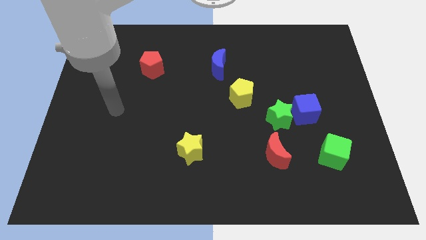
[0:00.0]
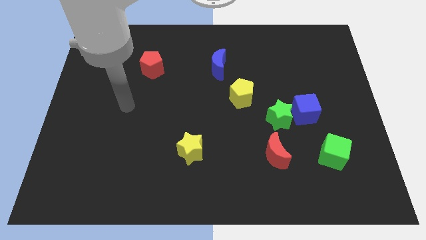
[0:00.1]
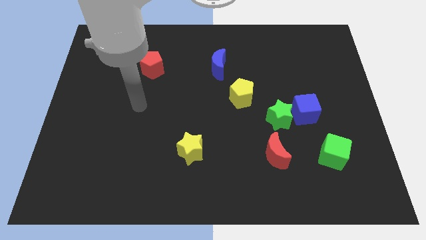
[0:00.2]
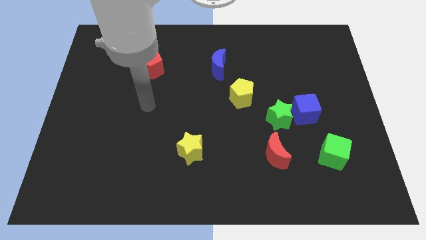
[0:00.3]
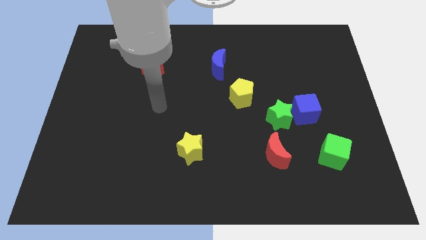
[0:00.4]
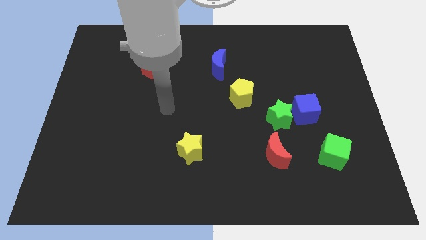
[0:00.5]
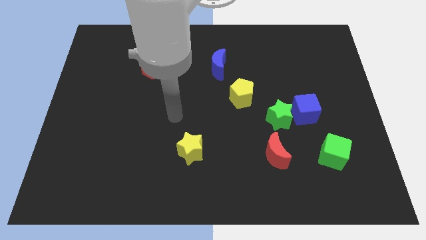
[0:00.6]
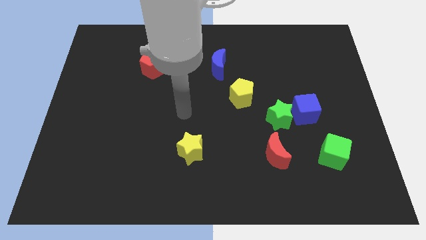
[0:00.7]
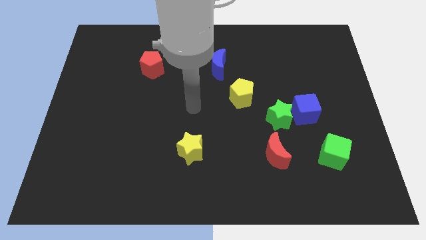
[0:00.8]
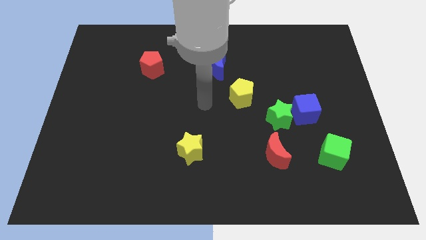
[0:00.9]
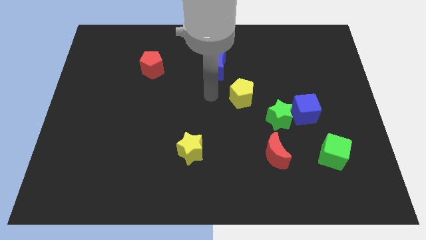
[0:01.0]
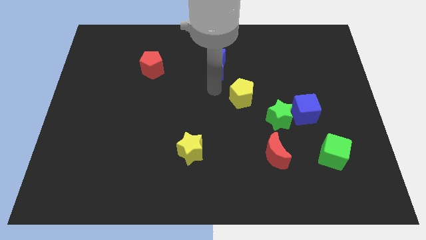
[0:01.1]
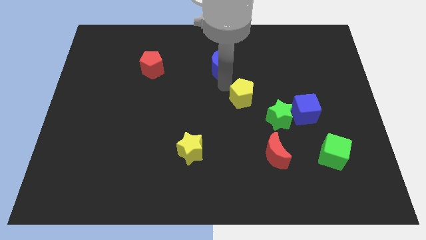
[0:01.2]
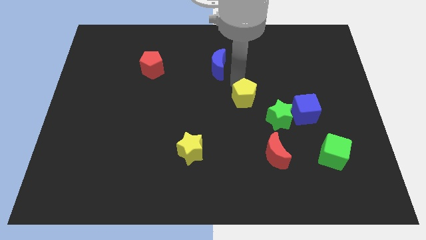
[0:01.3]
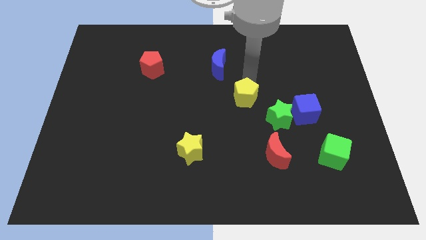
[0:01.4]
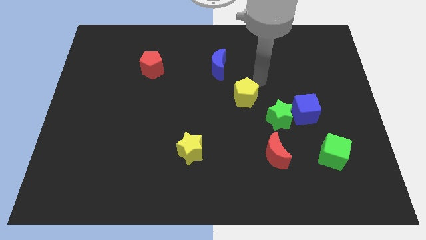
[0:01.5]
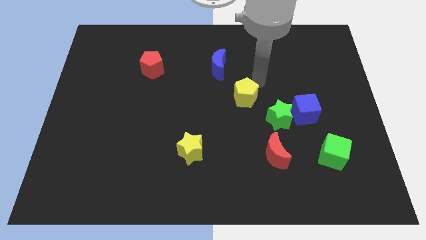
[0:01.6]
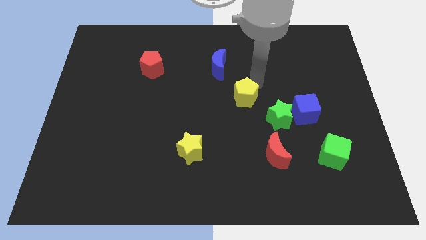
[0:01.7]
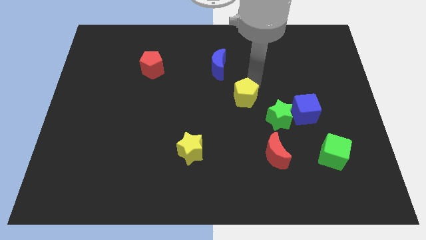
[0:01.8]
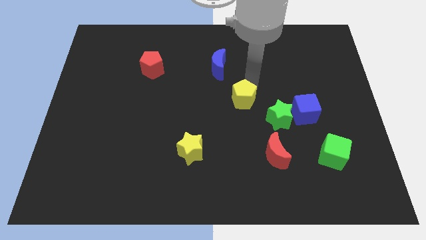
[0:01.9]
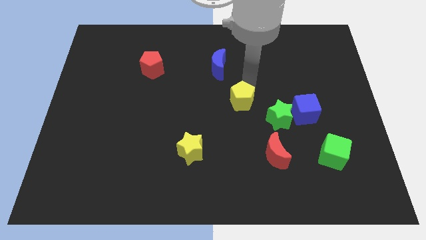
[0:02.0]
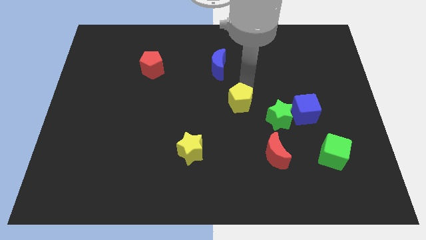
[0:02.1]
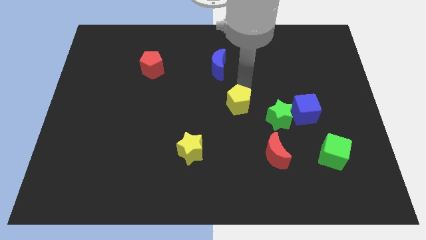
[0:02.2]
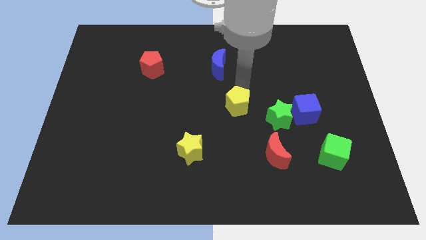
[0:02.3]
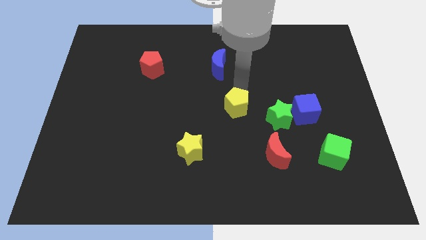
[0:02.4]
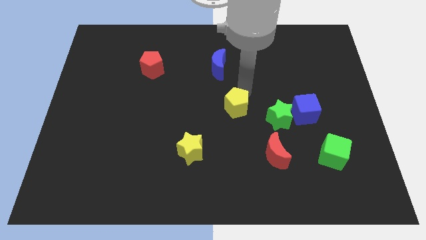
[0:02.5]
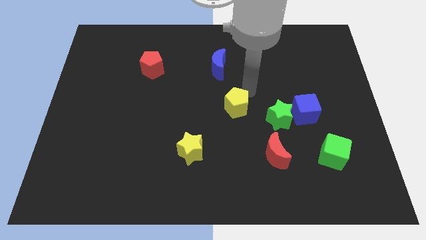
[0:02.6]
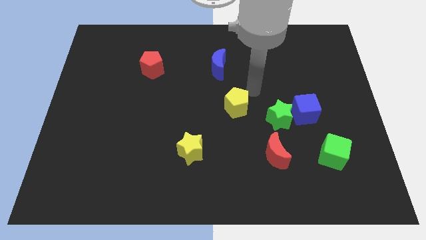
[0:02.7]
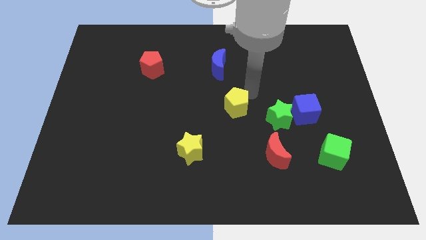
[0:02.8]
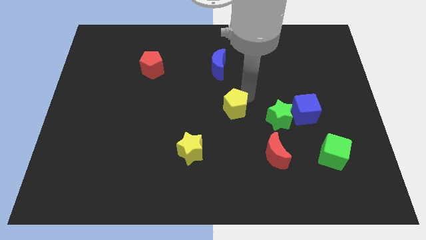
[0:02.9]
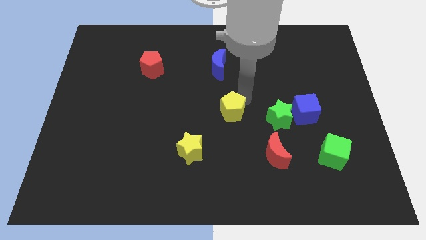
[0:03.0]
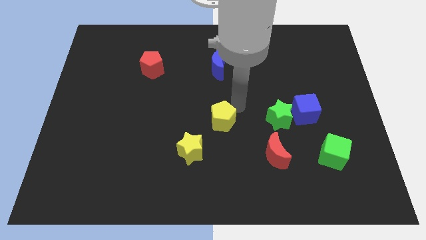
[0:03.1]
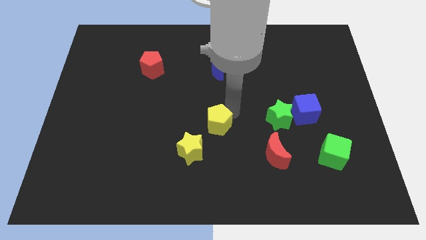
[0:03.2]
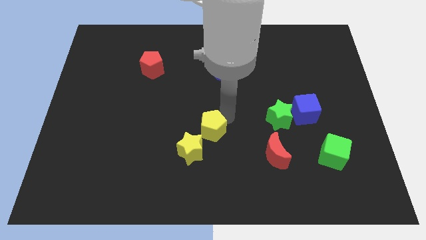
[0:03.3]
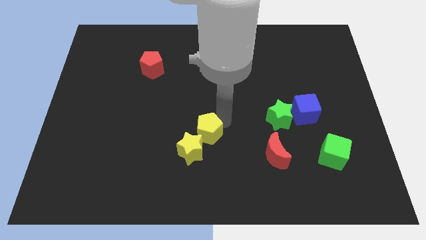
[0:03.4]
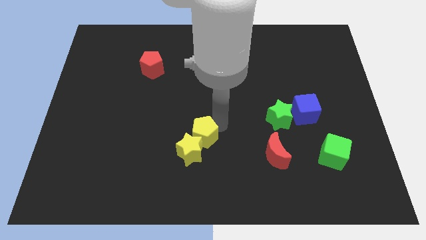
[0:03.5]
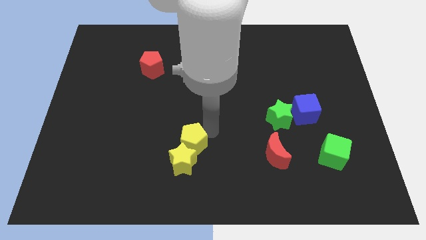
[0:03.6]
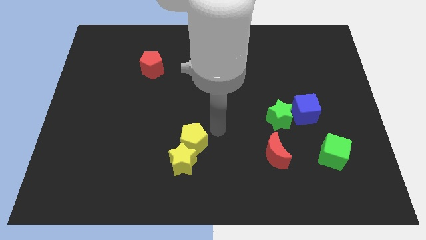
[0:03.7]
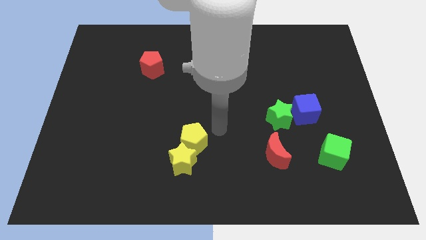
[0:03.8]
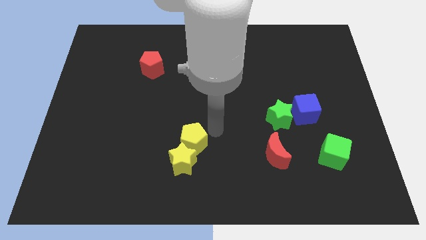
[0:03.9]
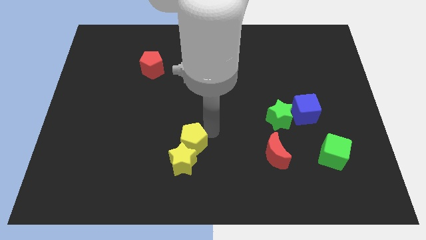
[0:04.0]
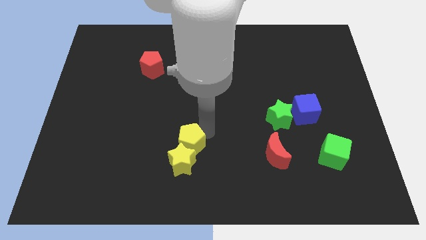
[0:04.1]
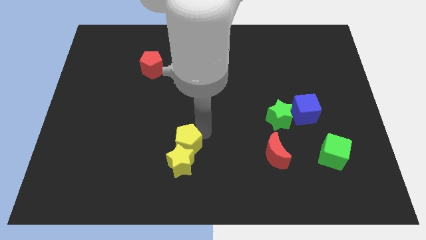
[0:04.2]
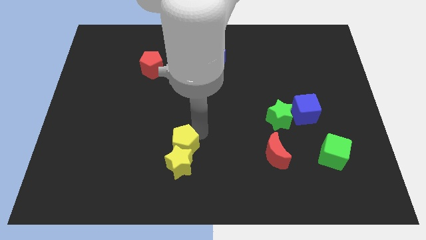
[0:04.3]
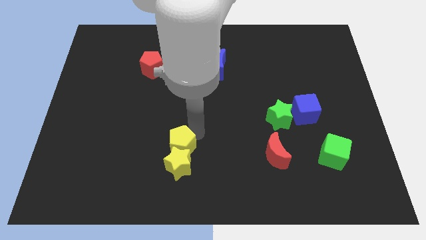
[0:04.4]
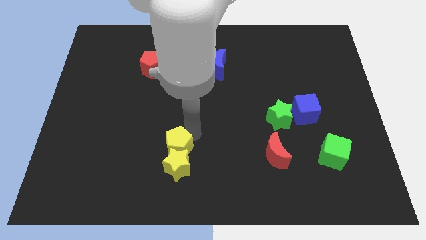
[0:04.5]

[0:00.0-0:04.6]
push the yellow pentagon diagonally downwards and left

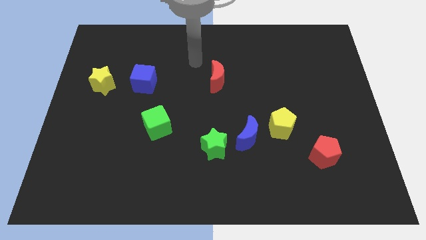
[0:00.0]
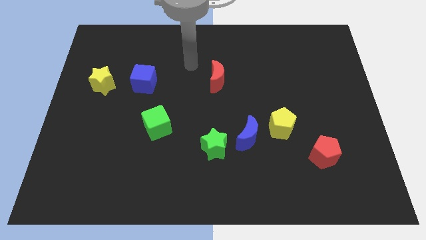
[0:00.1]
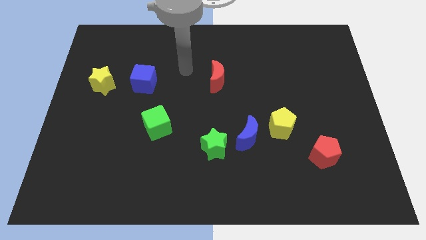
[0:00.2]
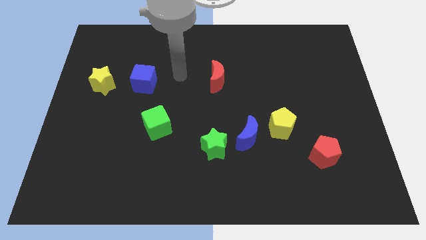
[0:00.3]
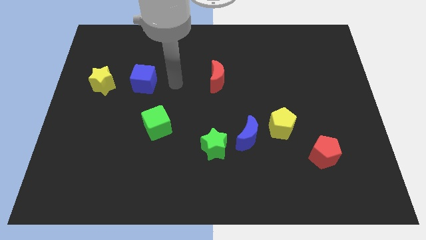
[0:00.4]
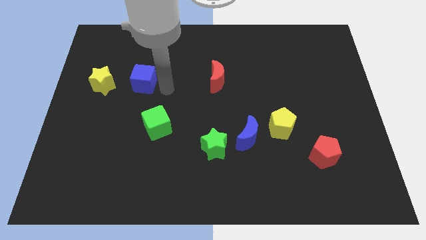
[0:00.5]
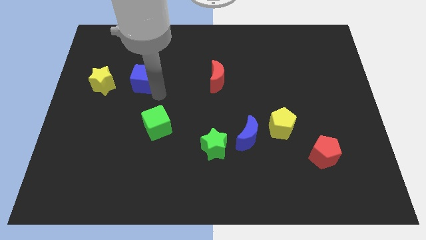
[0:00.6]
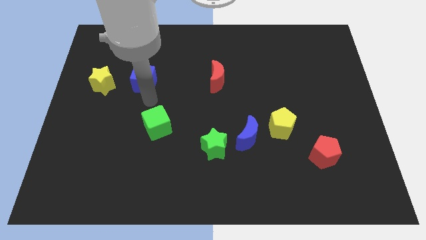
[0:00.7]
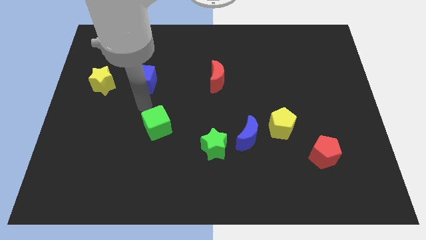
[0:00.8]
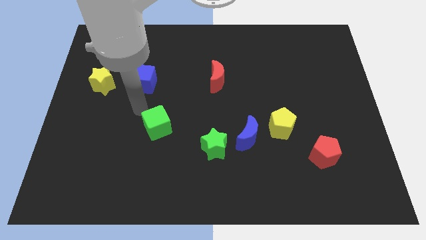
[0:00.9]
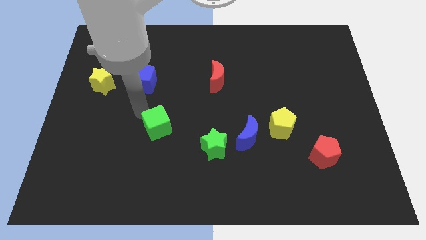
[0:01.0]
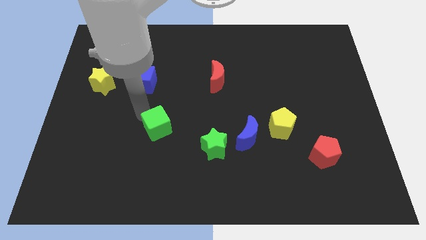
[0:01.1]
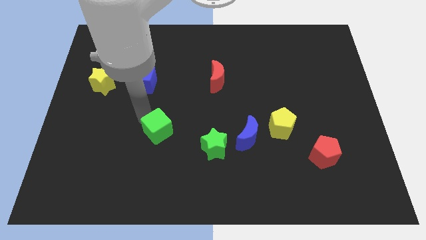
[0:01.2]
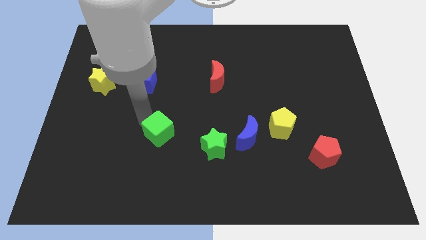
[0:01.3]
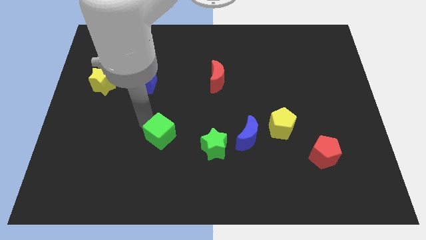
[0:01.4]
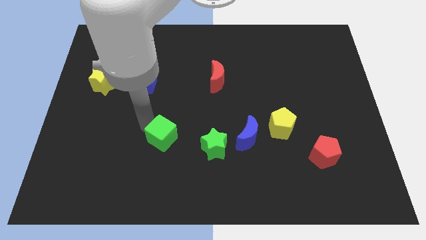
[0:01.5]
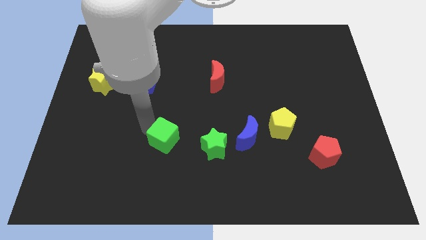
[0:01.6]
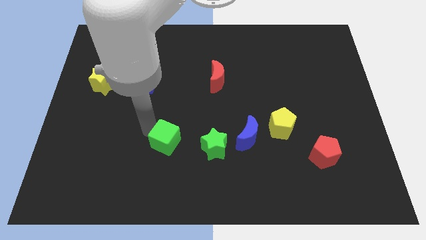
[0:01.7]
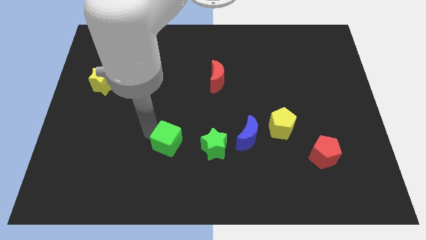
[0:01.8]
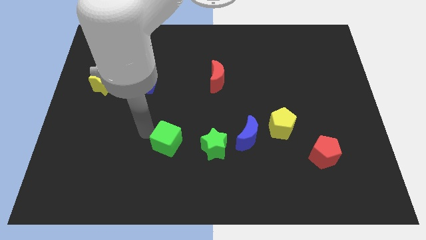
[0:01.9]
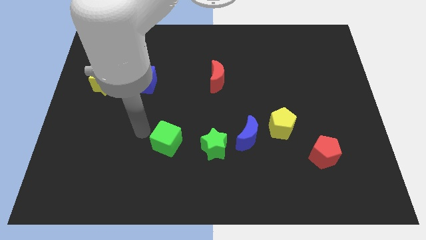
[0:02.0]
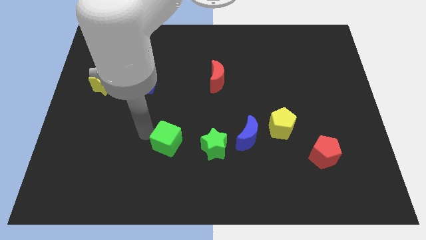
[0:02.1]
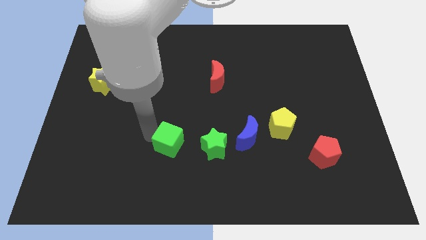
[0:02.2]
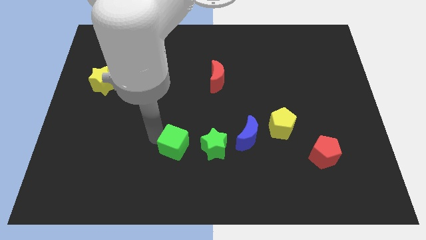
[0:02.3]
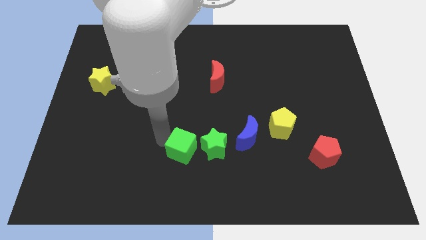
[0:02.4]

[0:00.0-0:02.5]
slightly move the green cube down and then right

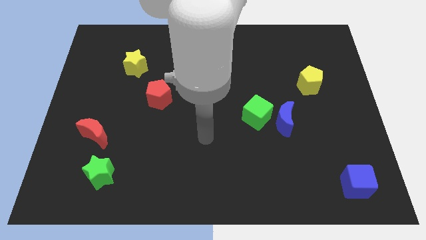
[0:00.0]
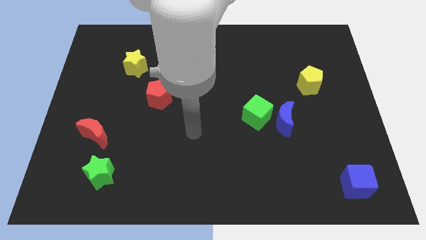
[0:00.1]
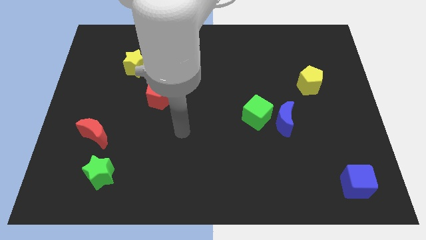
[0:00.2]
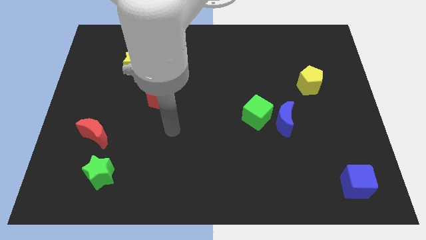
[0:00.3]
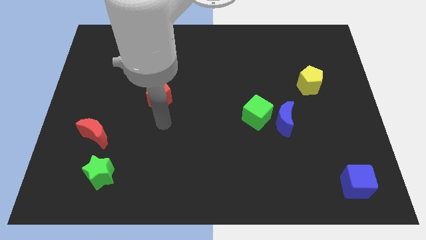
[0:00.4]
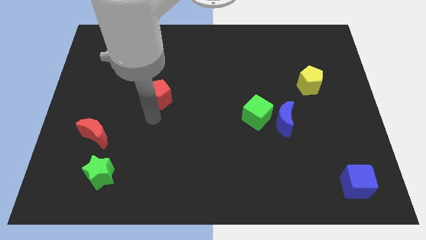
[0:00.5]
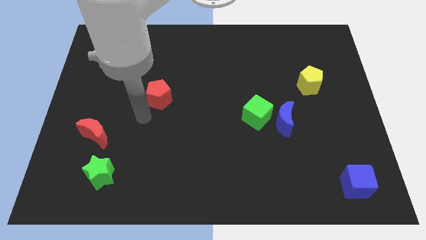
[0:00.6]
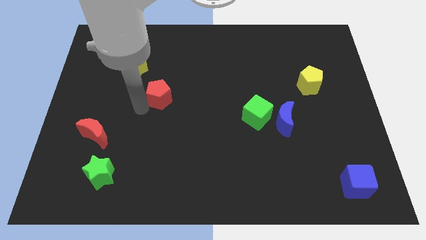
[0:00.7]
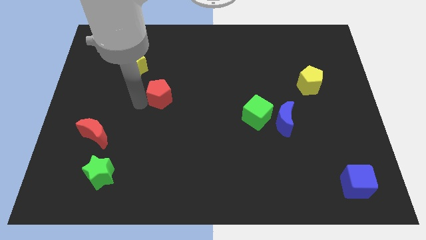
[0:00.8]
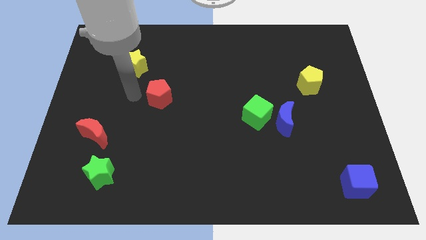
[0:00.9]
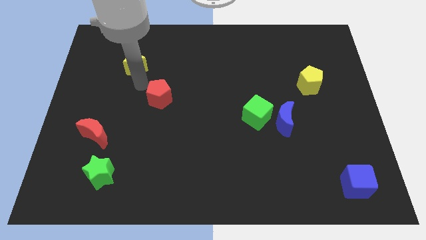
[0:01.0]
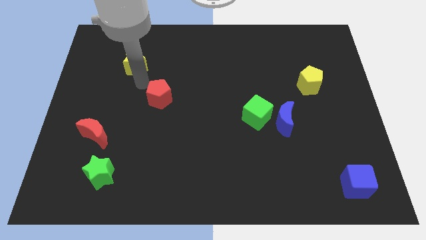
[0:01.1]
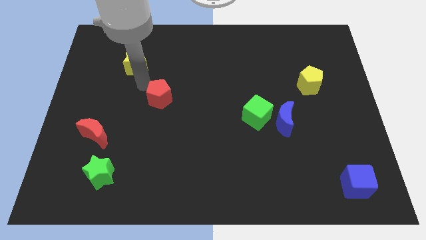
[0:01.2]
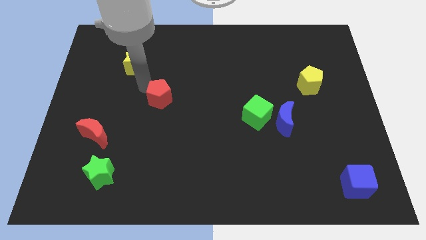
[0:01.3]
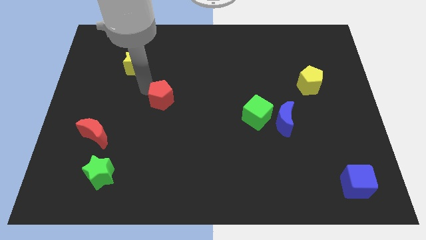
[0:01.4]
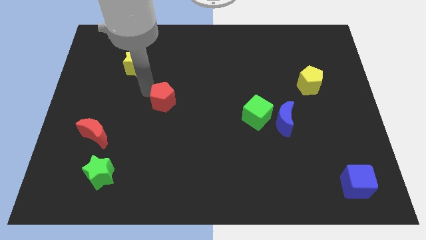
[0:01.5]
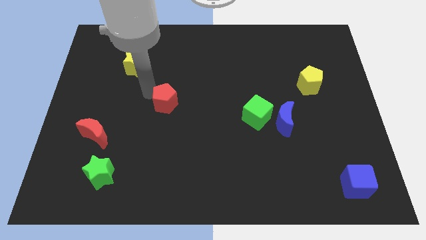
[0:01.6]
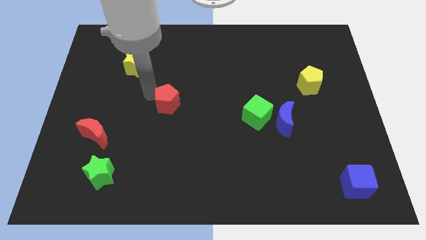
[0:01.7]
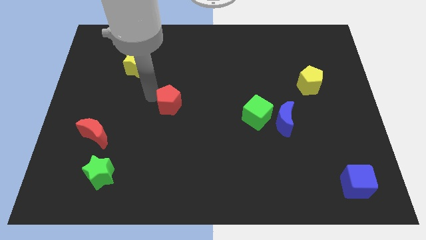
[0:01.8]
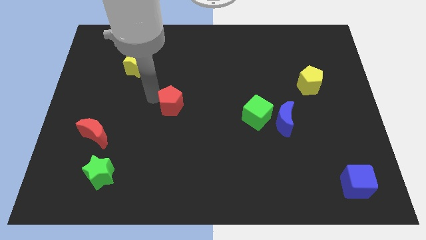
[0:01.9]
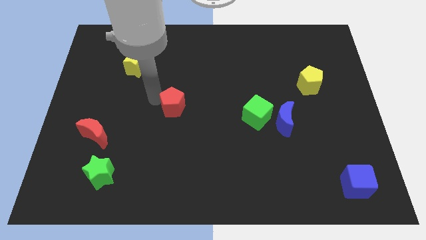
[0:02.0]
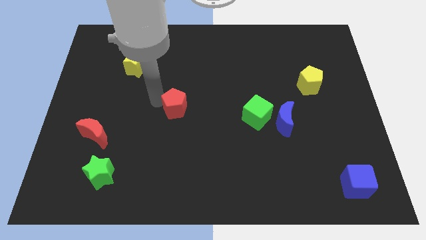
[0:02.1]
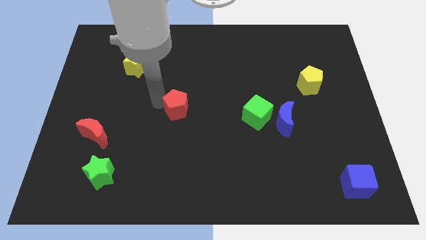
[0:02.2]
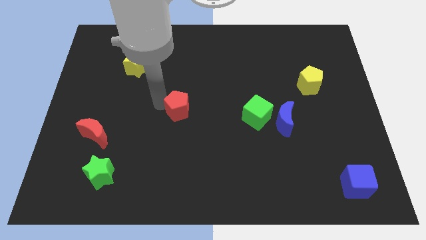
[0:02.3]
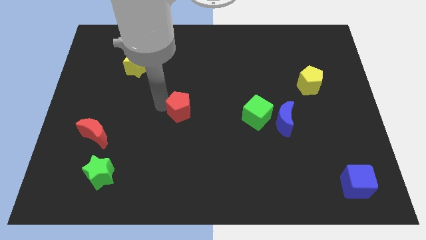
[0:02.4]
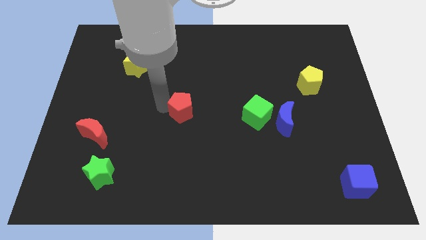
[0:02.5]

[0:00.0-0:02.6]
slide the red pentagon downwards and then to the right a bit
